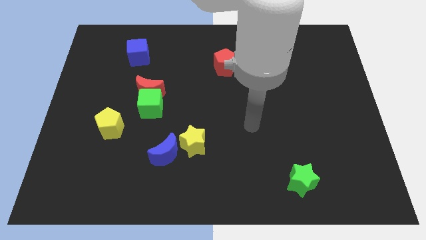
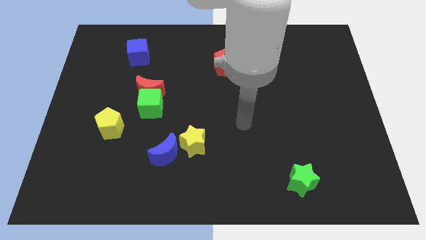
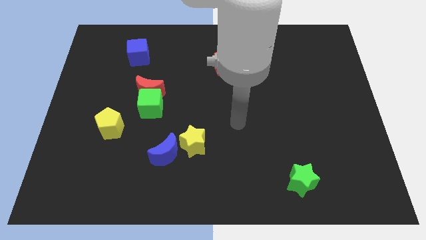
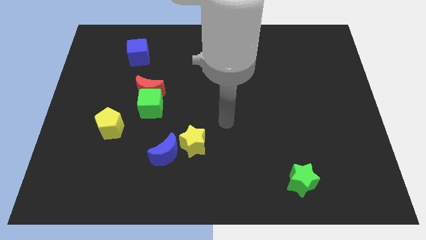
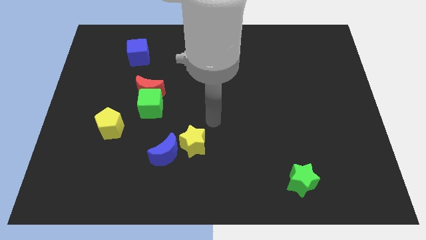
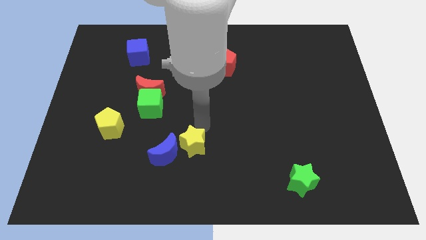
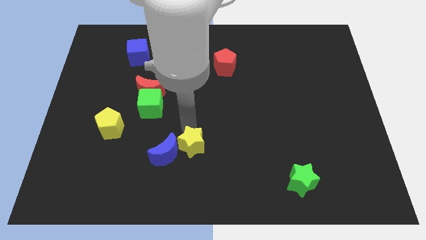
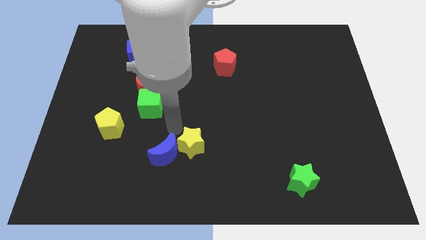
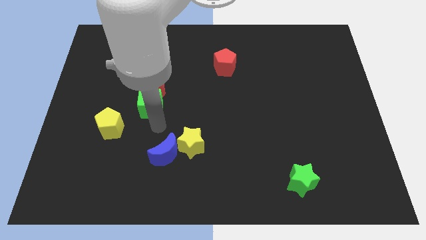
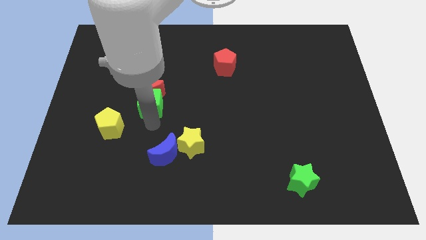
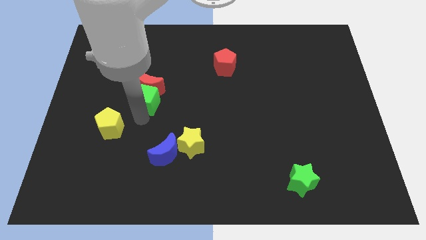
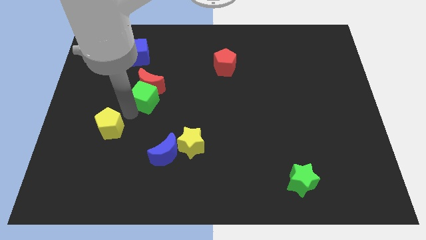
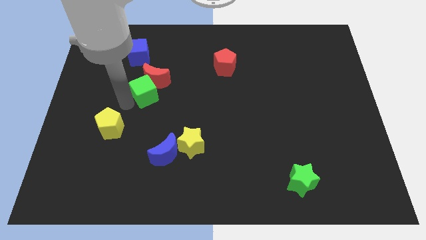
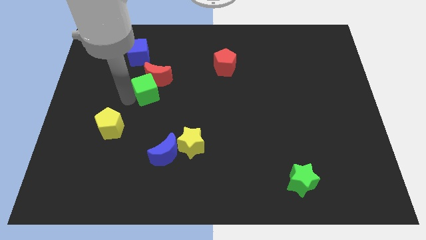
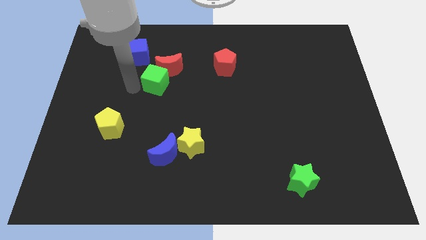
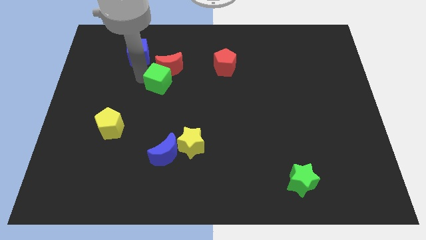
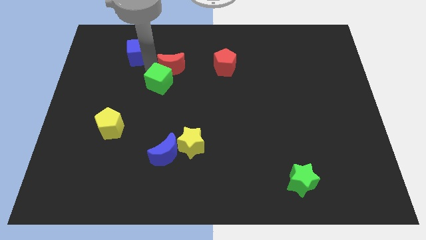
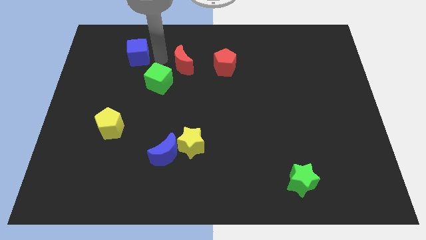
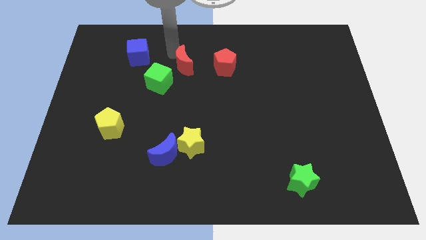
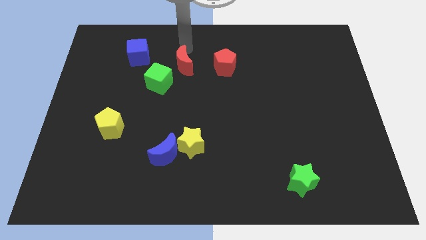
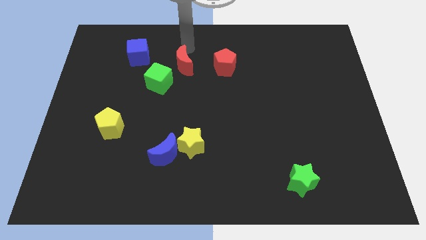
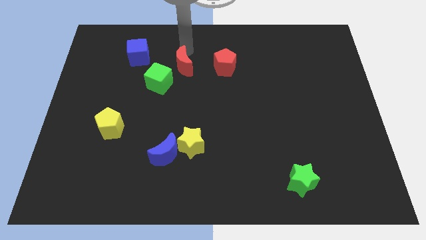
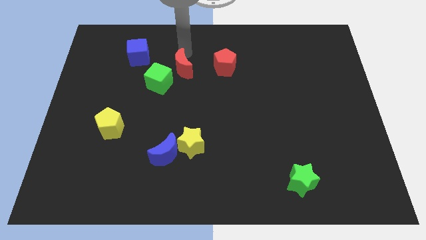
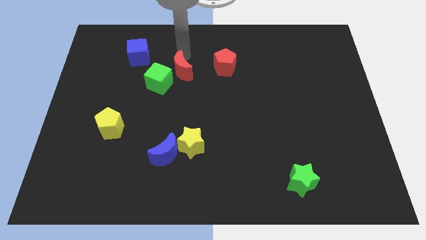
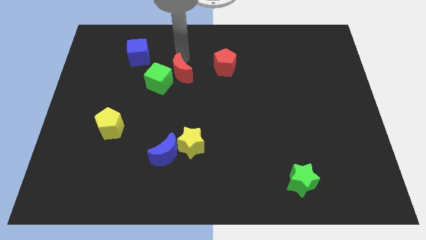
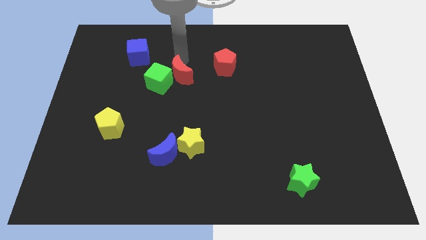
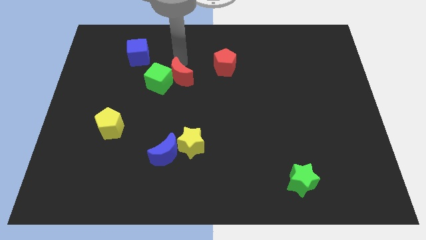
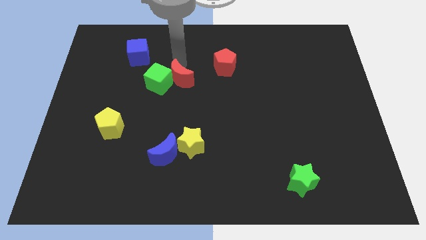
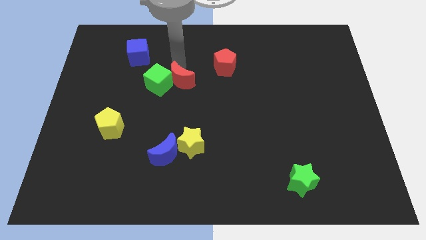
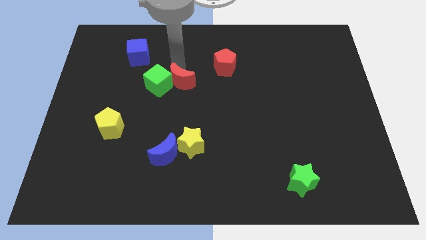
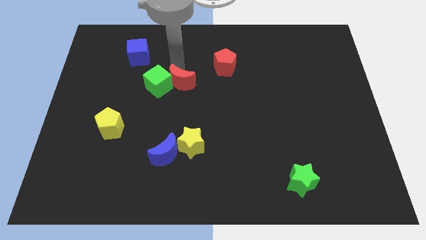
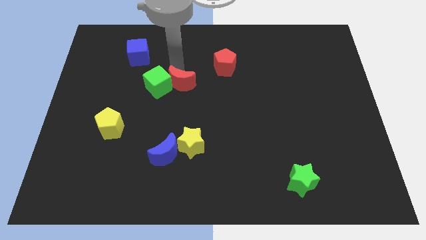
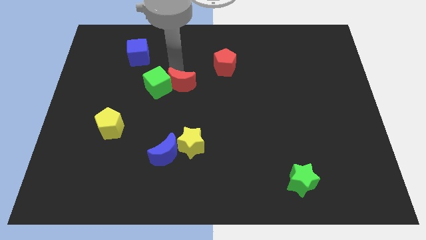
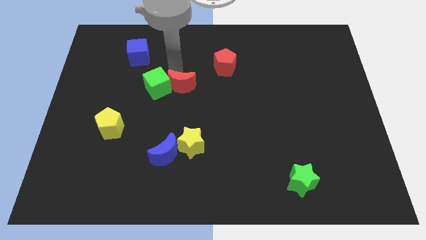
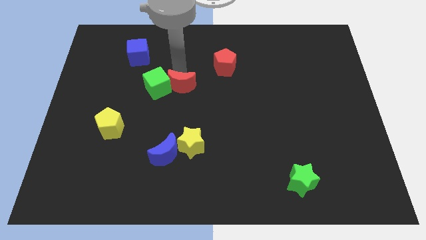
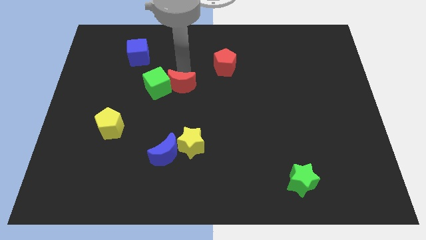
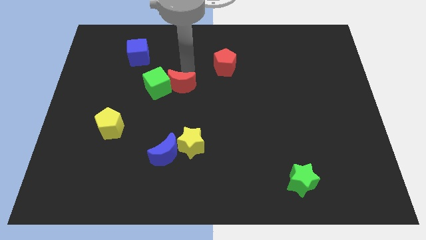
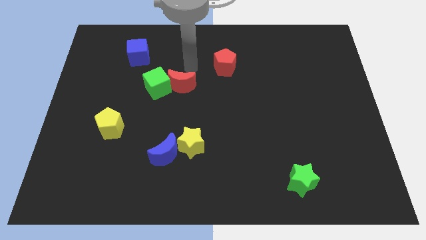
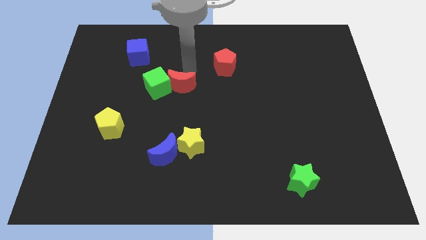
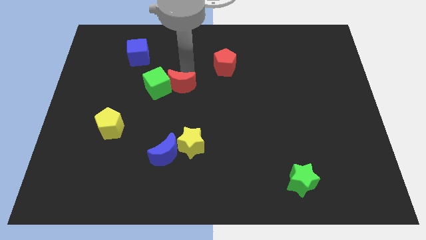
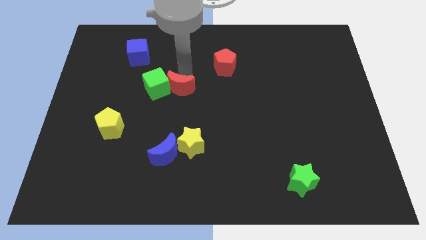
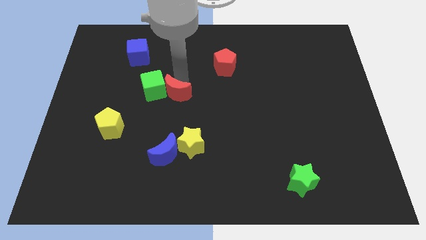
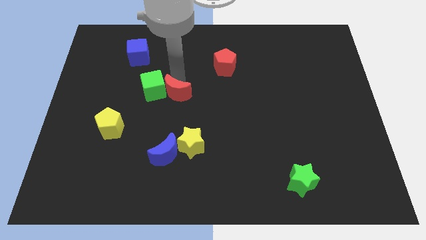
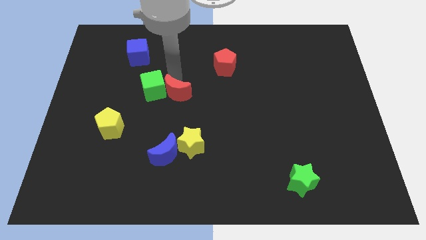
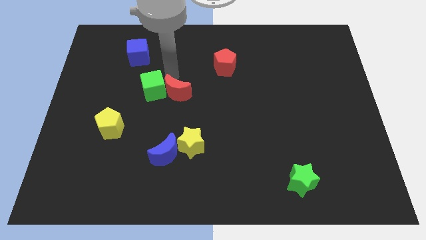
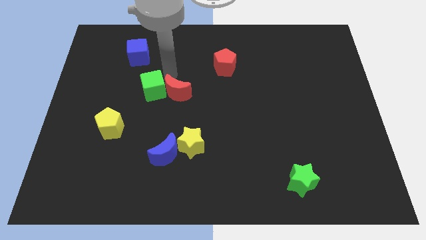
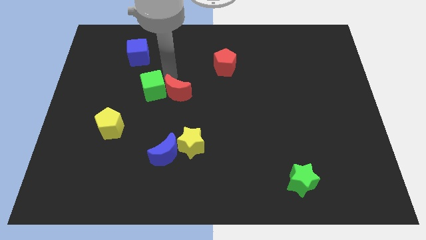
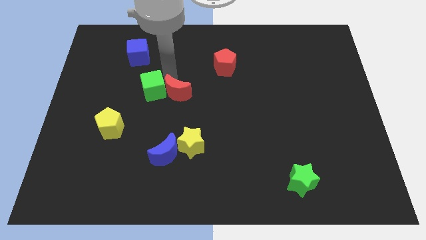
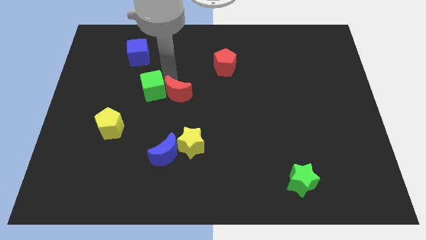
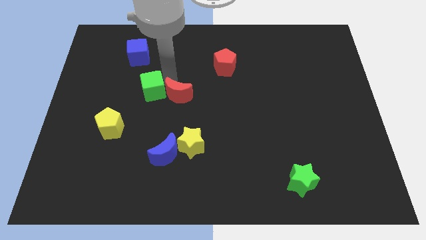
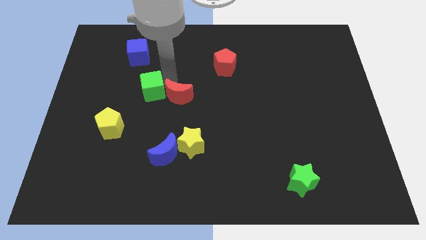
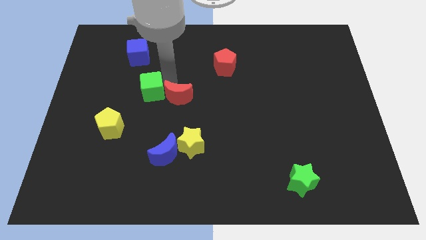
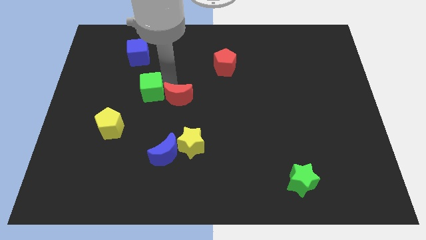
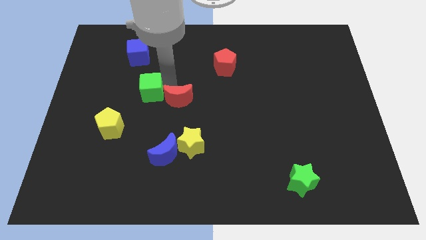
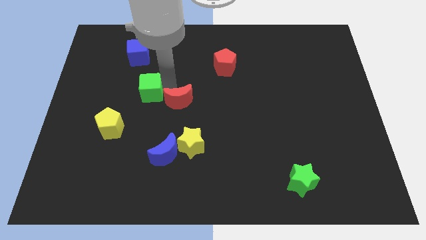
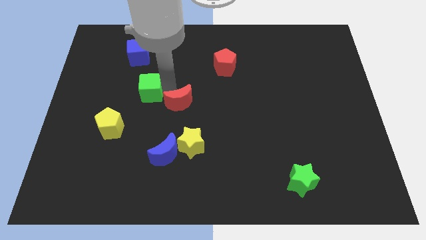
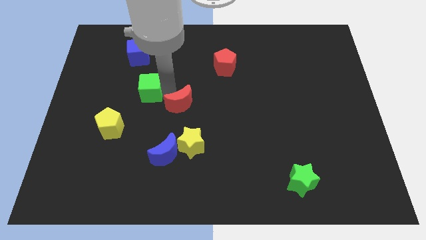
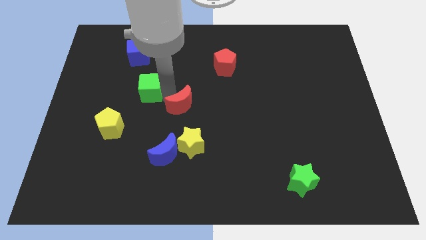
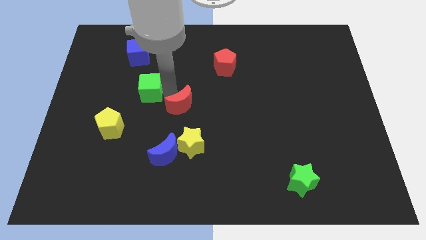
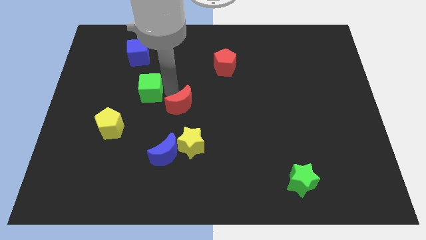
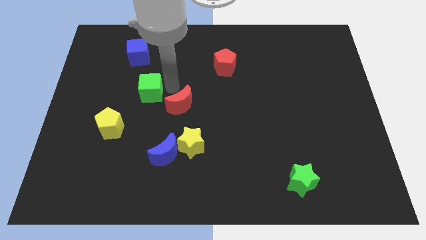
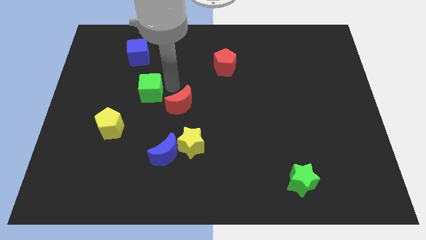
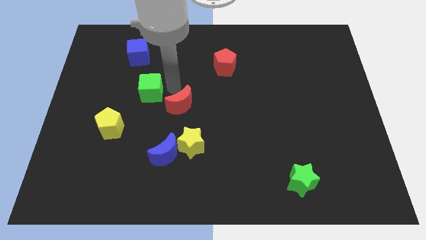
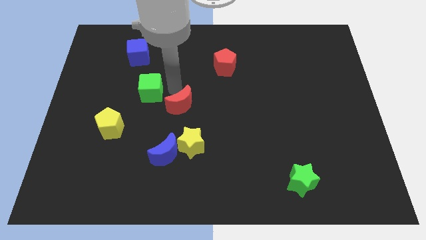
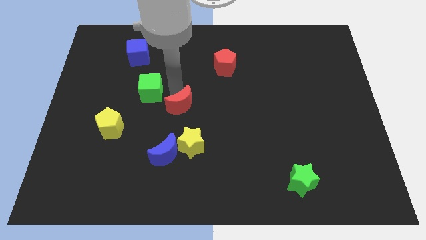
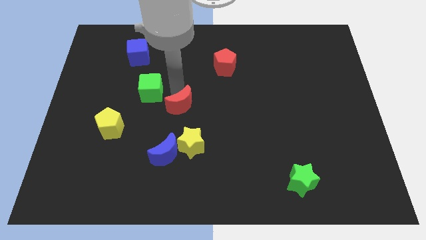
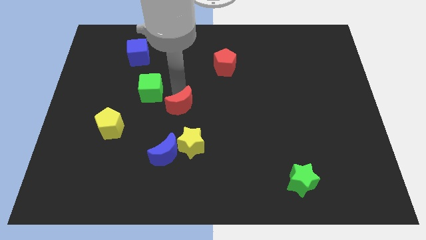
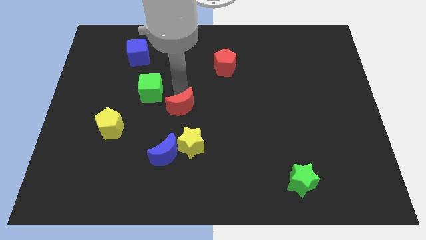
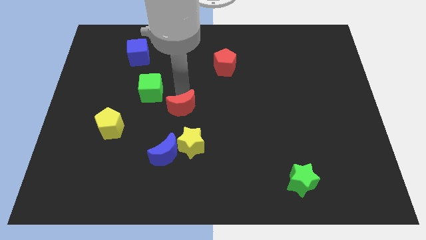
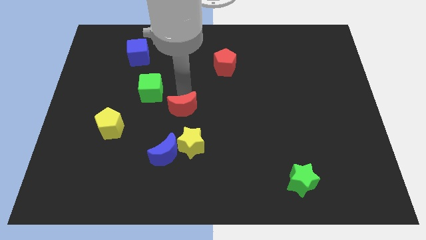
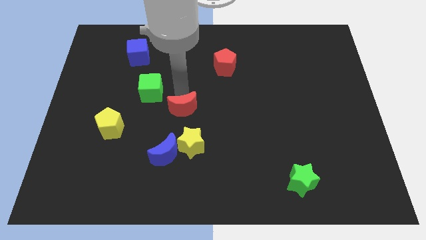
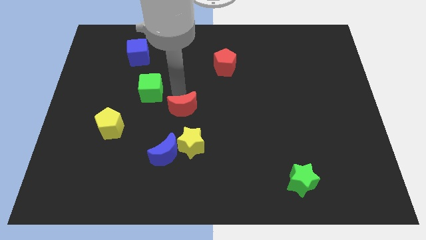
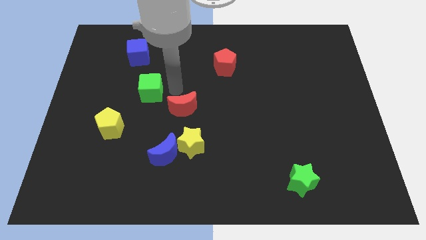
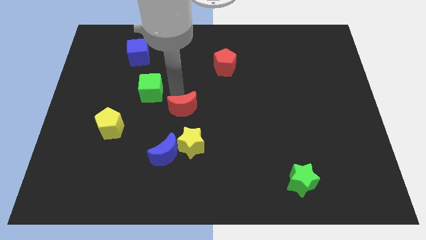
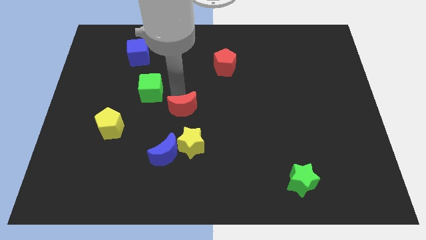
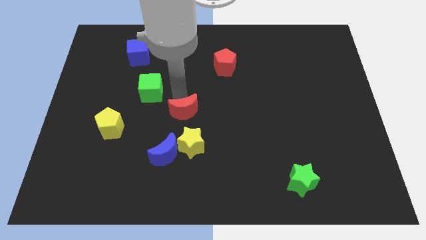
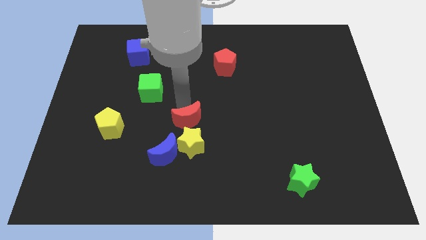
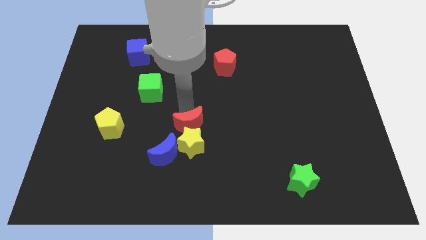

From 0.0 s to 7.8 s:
put the red moon to the yellow star
